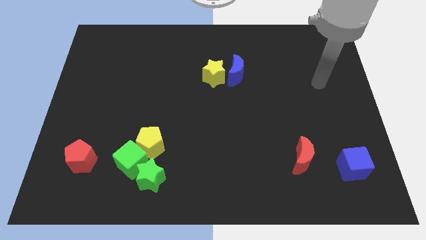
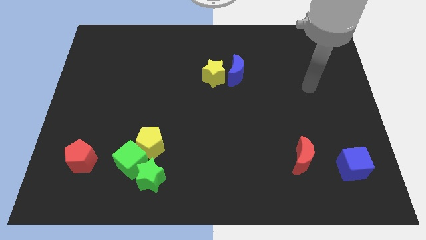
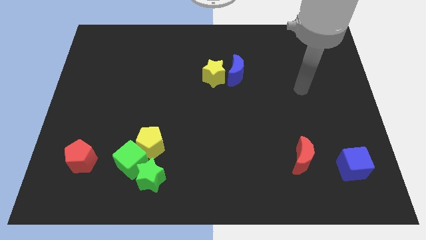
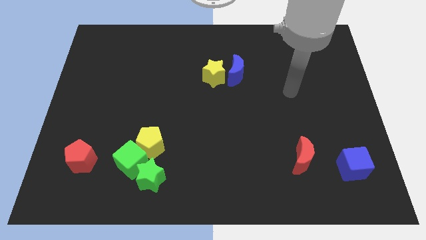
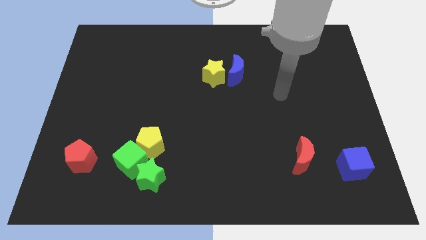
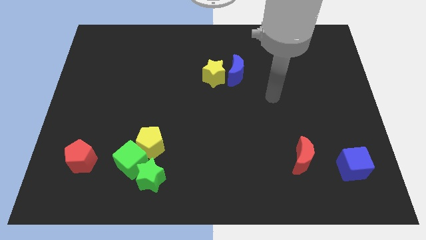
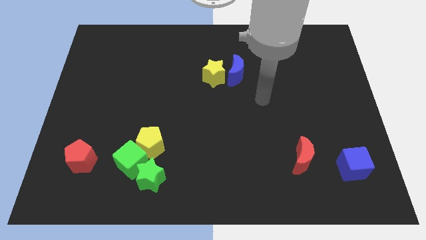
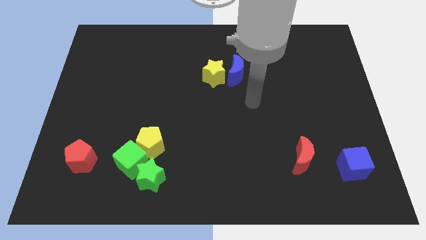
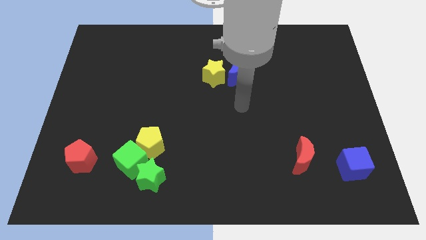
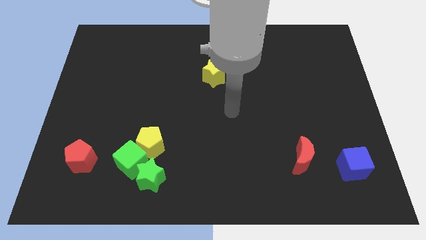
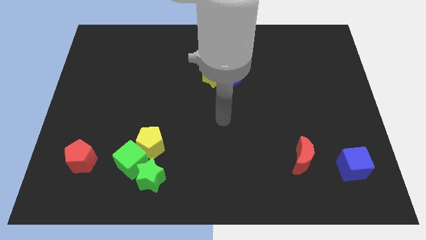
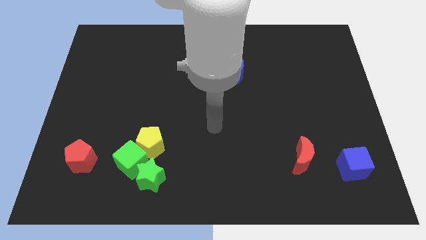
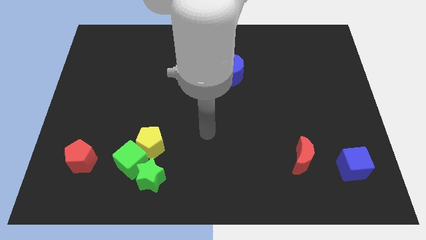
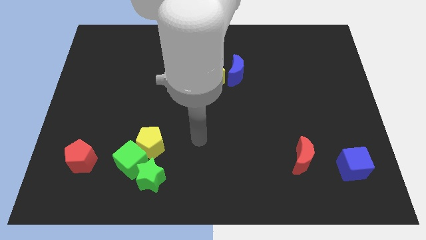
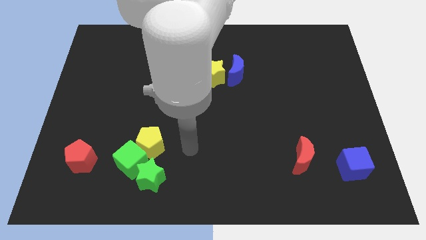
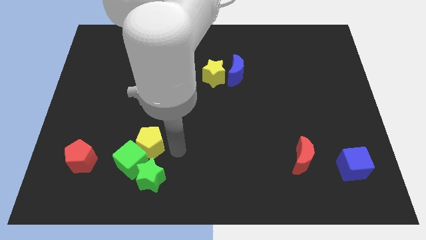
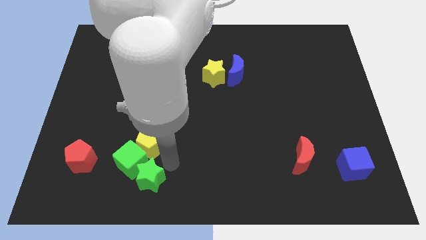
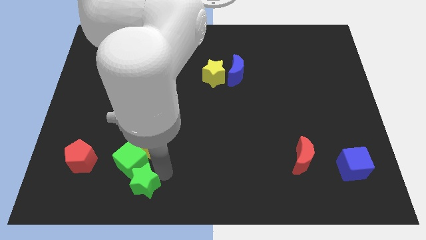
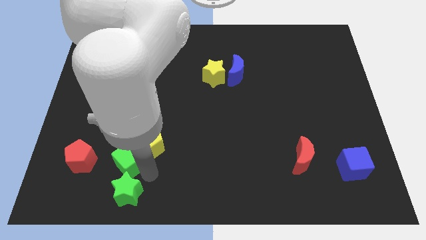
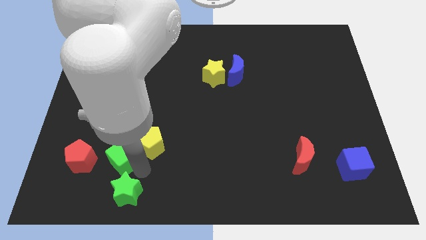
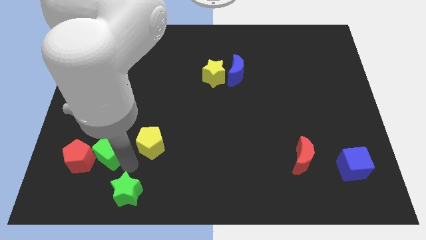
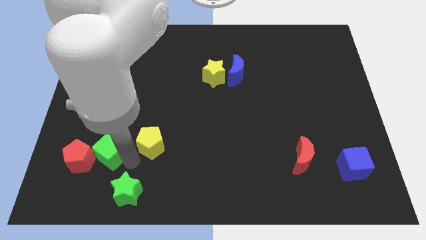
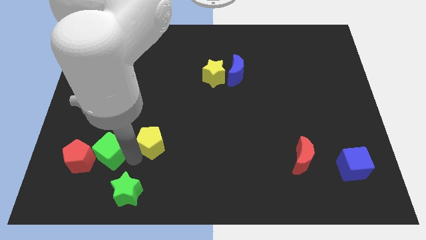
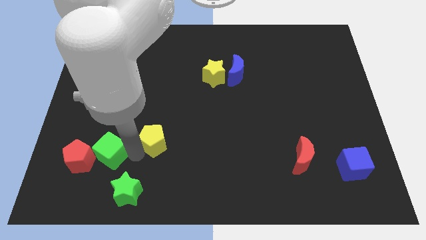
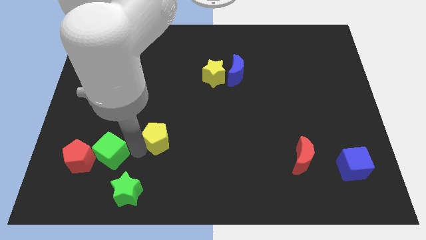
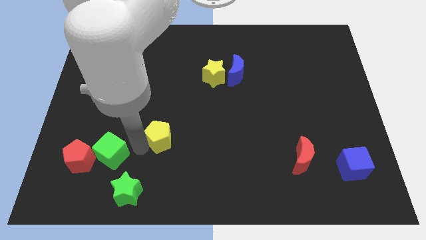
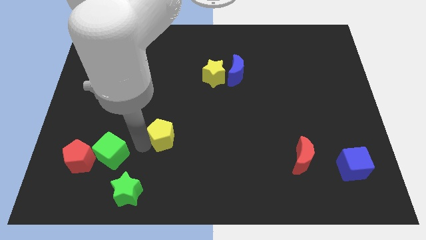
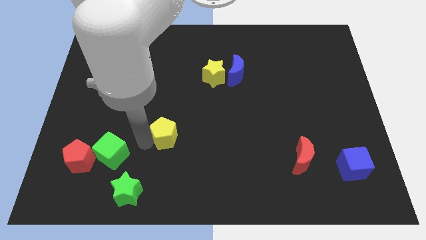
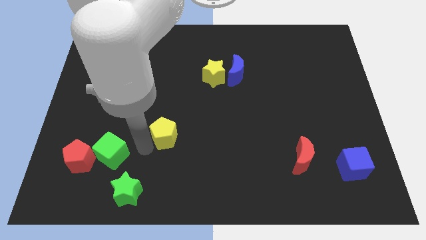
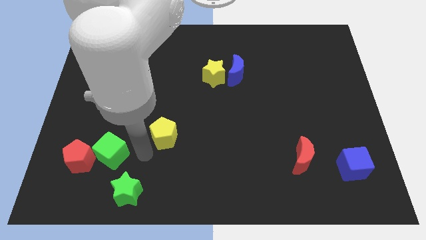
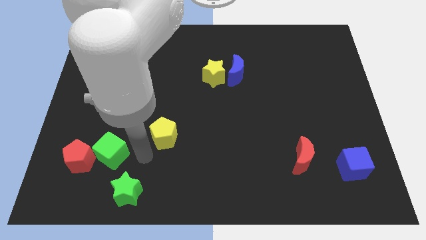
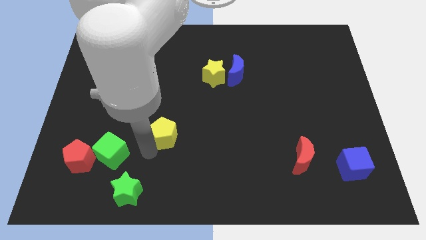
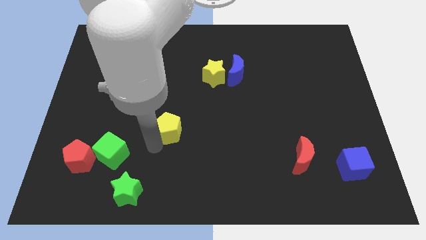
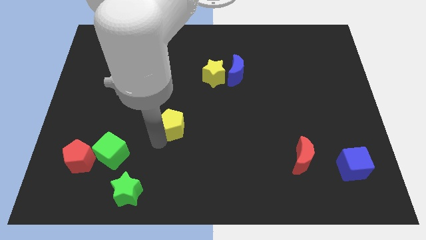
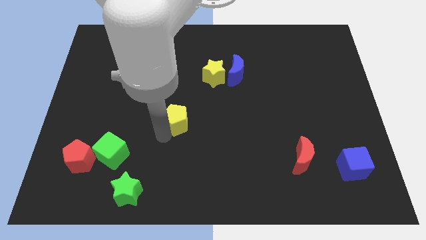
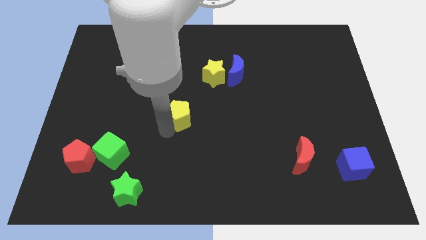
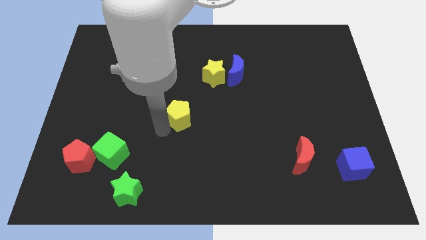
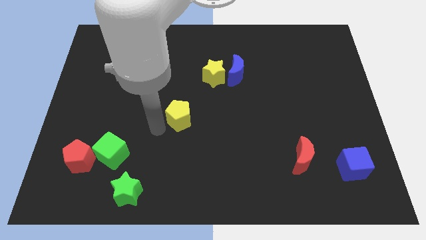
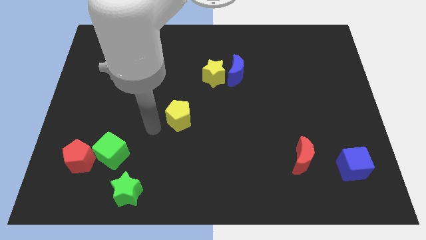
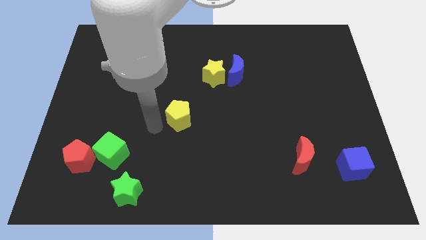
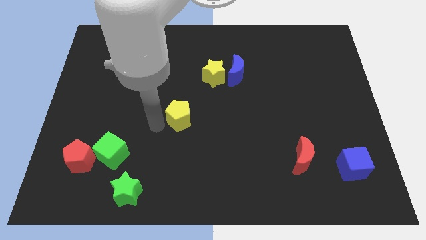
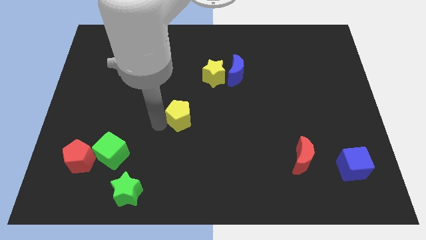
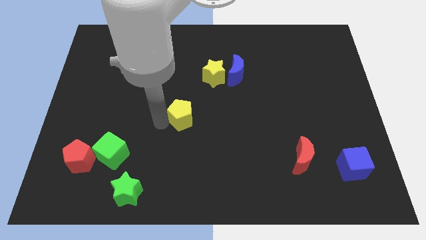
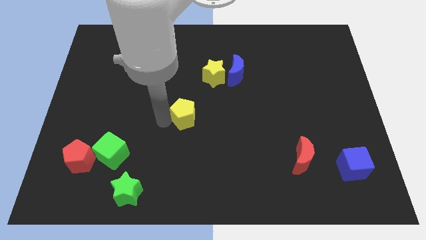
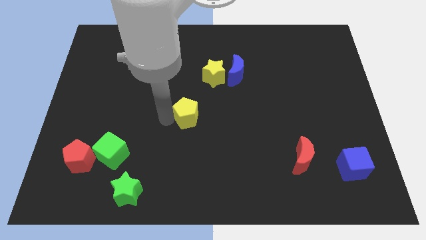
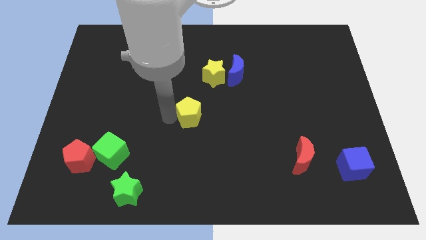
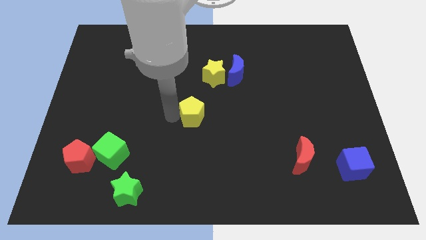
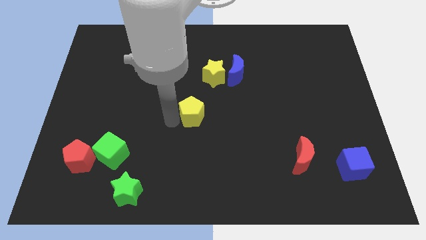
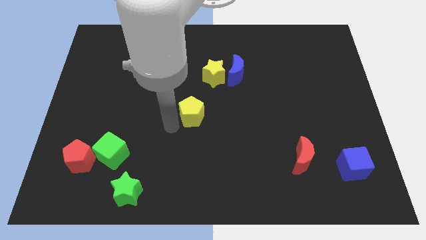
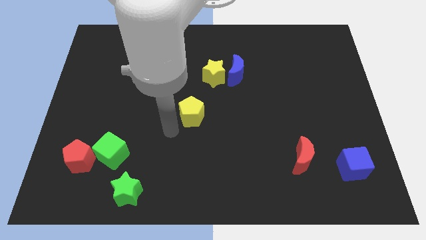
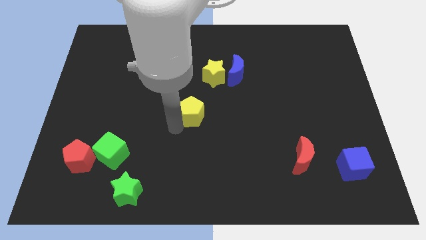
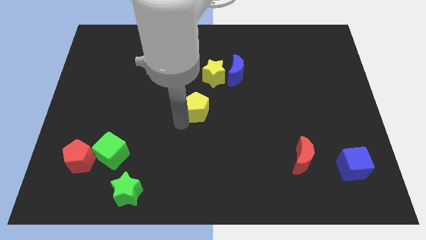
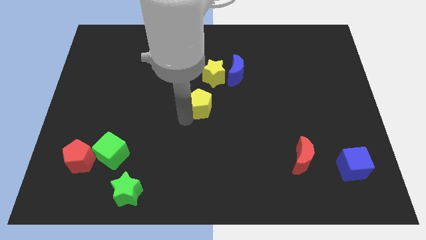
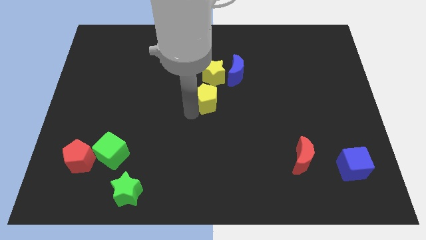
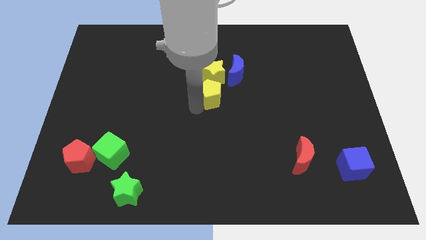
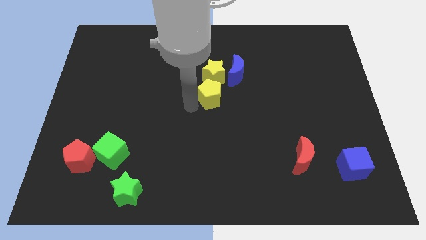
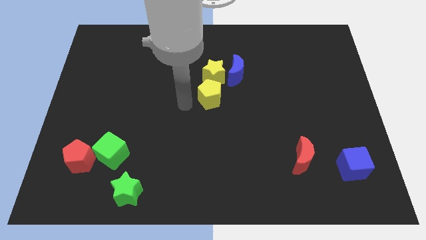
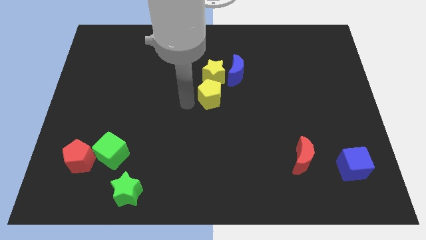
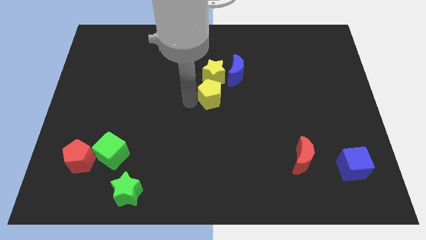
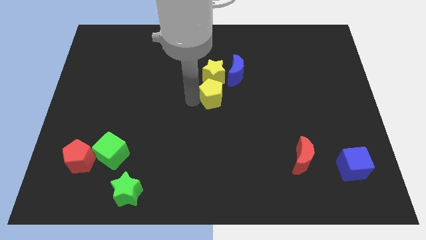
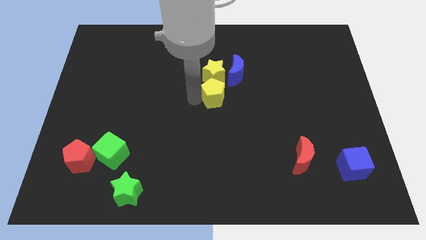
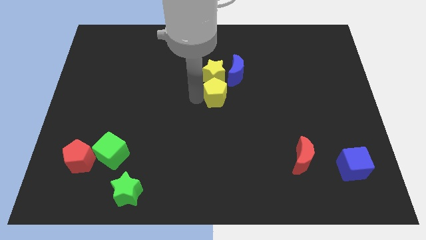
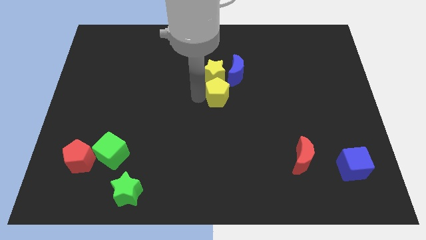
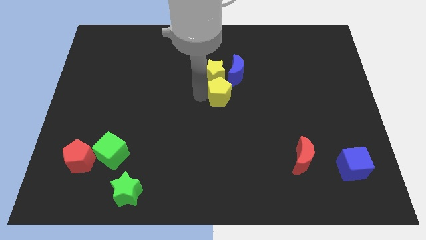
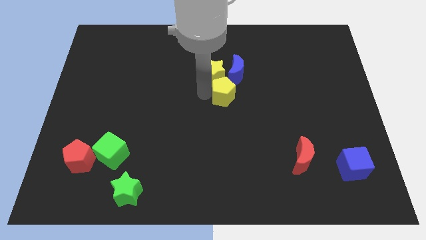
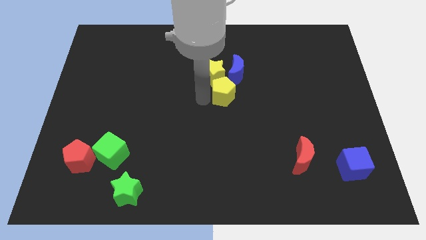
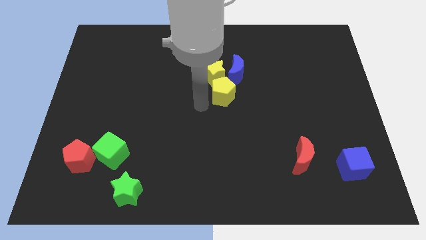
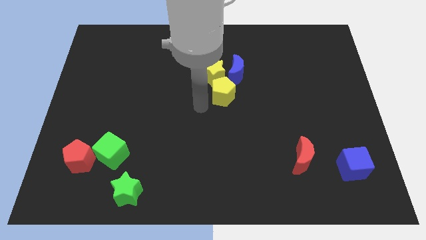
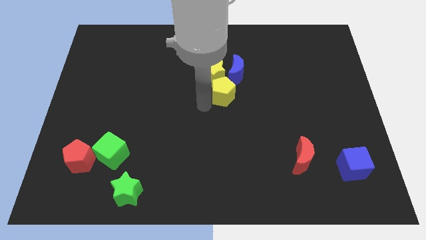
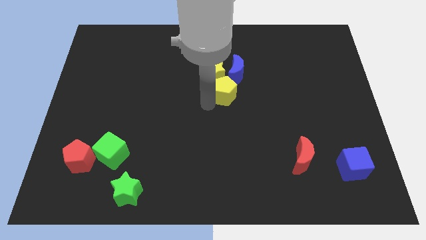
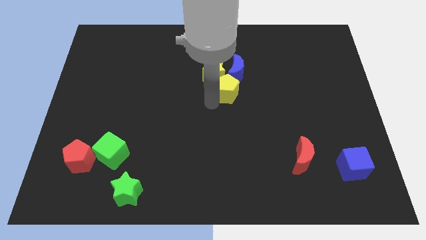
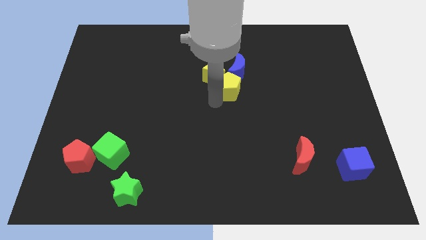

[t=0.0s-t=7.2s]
put the yellow pentagon just right of the yellow star

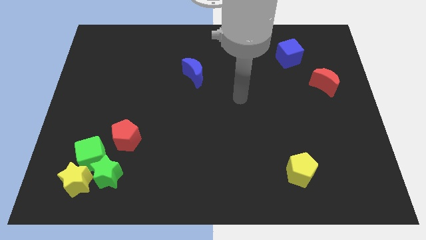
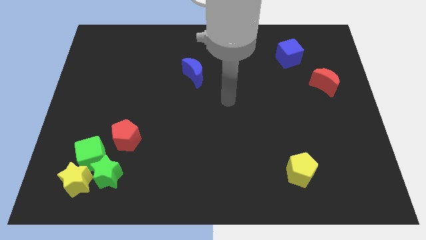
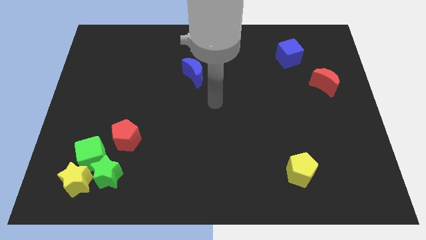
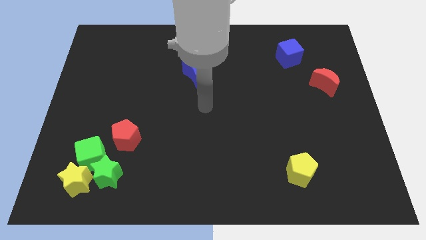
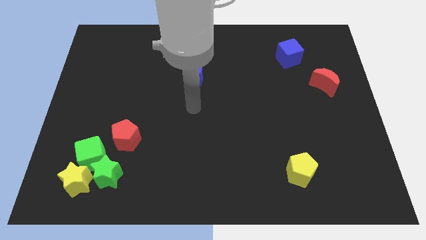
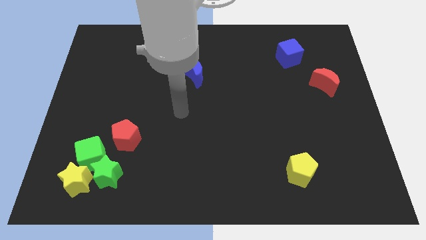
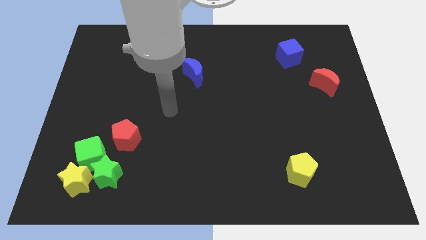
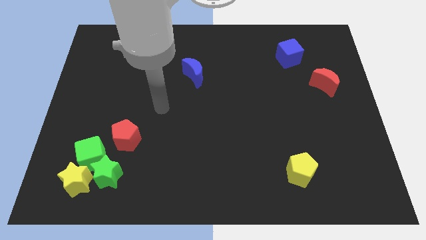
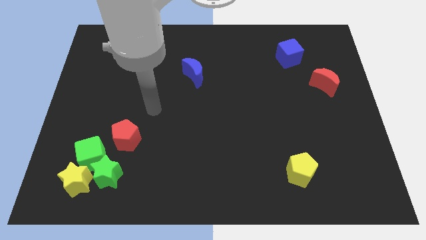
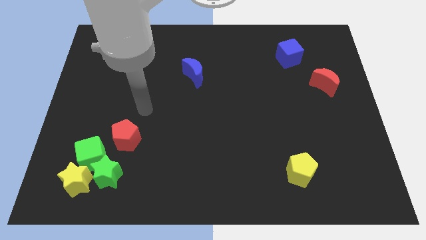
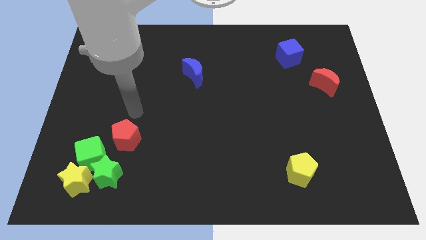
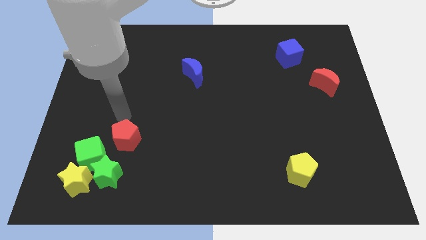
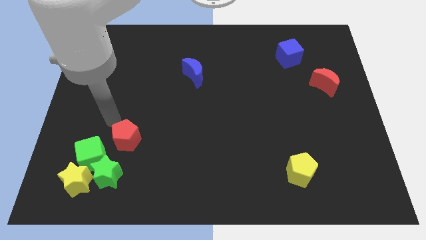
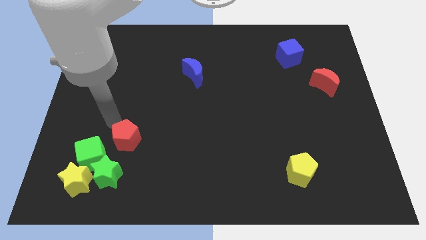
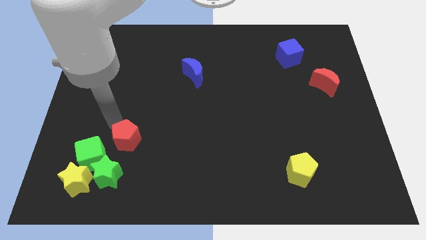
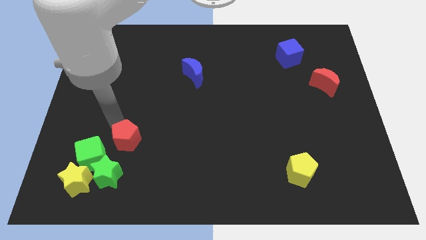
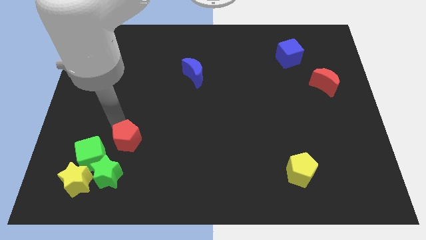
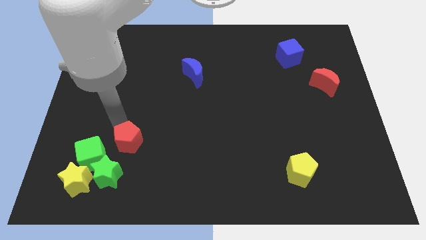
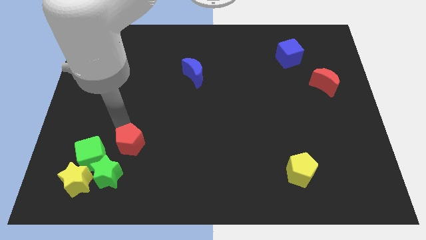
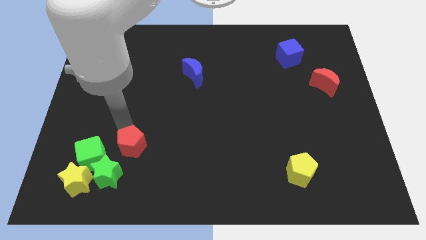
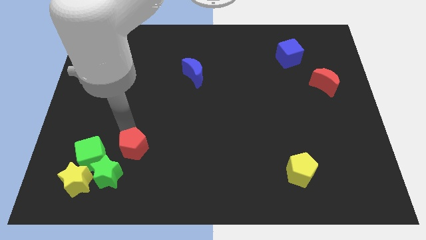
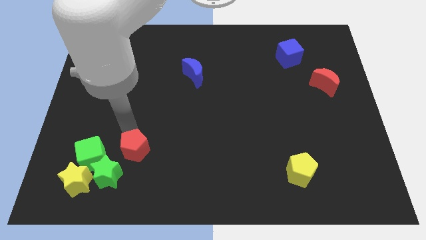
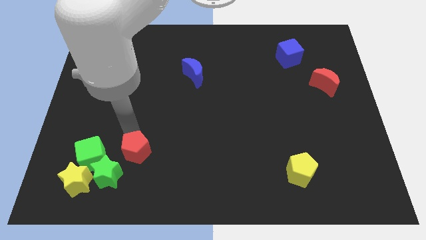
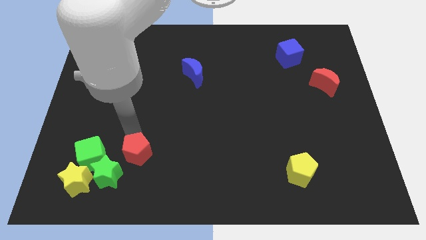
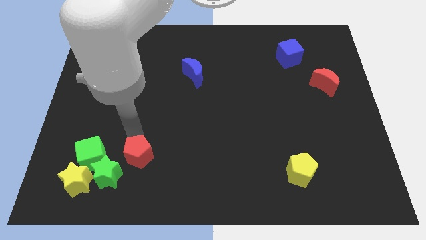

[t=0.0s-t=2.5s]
push the red pentagon just right of the green star
